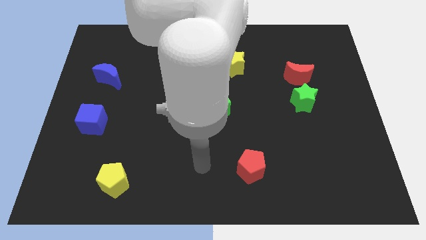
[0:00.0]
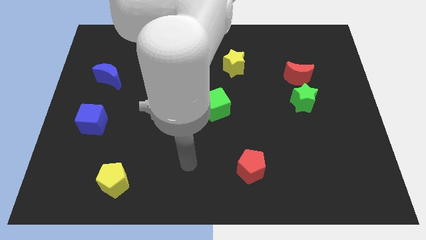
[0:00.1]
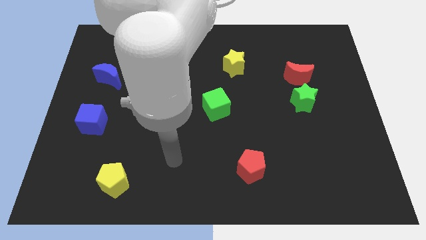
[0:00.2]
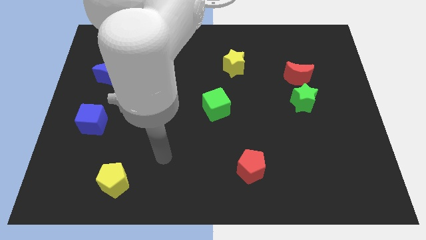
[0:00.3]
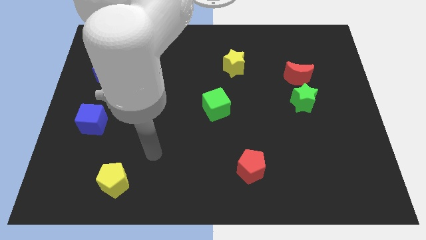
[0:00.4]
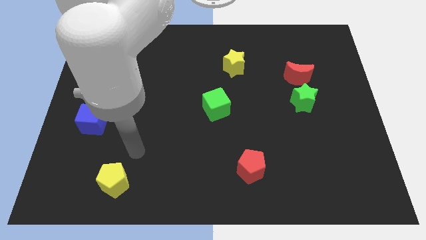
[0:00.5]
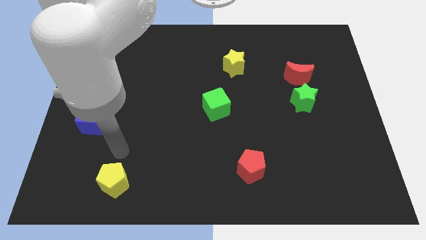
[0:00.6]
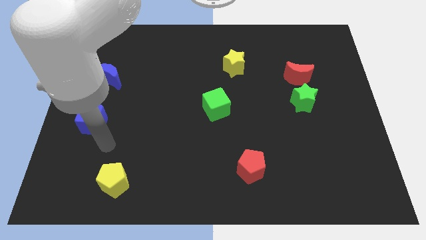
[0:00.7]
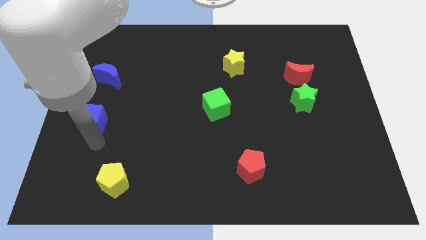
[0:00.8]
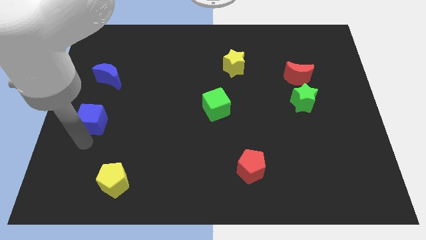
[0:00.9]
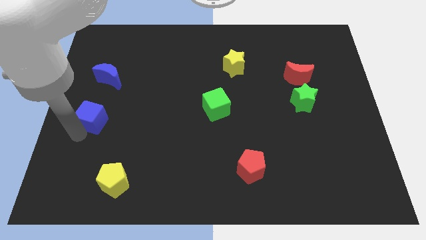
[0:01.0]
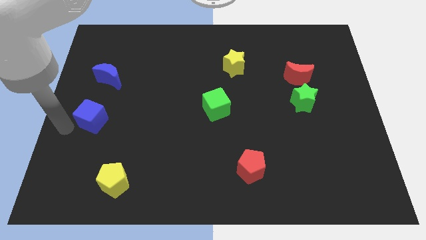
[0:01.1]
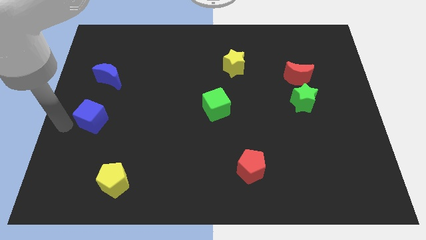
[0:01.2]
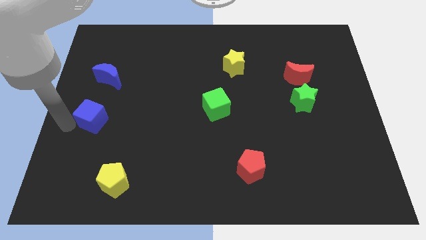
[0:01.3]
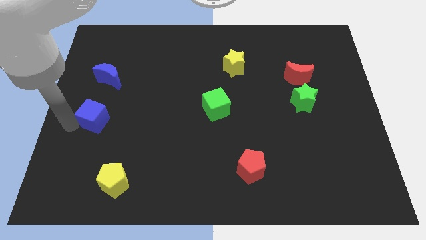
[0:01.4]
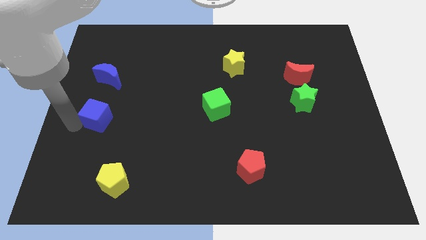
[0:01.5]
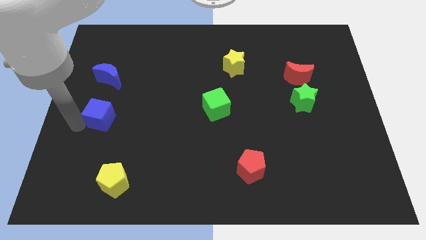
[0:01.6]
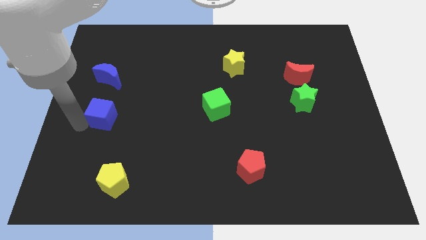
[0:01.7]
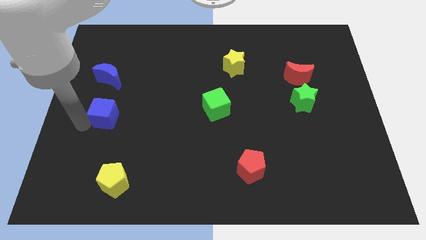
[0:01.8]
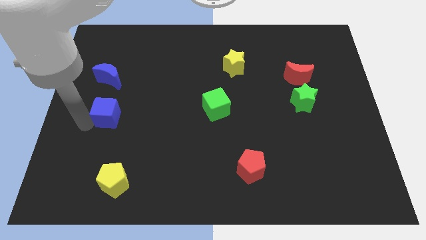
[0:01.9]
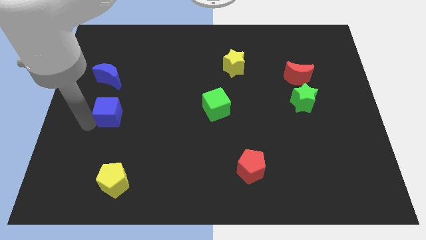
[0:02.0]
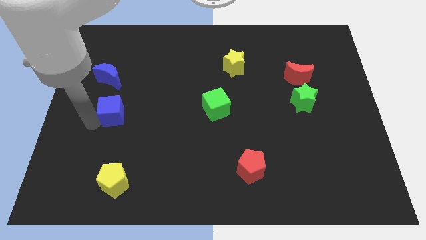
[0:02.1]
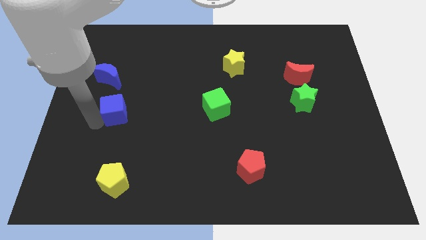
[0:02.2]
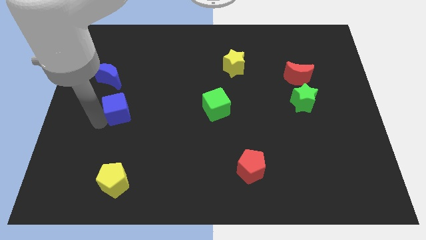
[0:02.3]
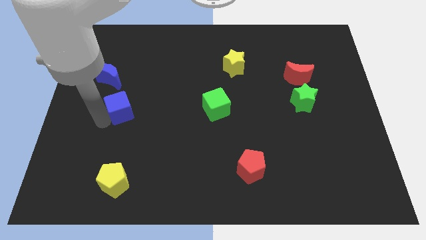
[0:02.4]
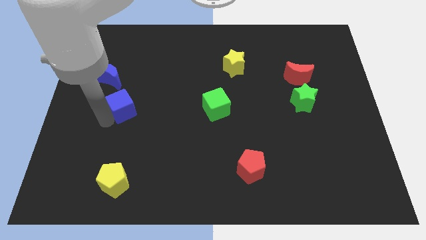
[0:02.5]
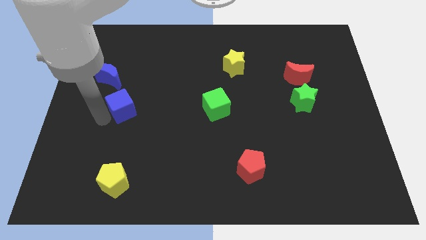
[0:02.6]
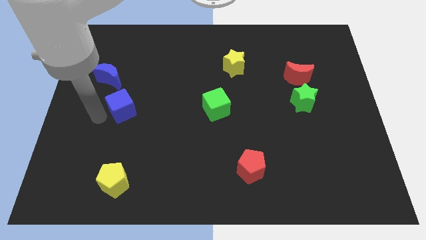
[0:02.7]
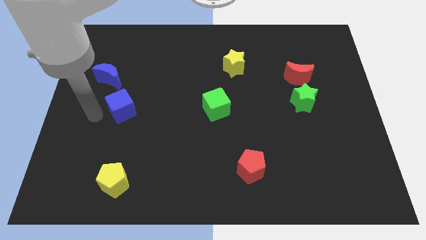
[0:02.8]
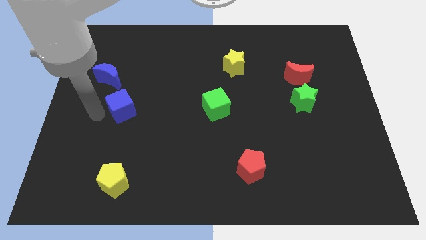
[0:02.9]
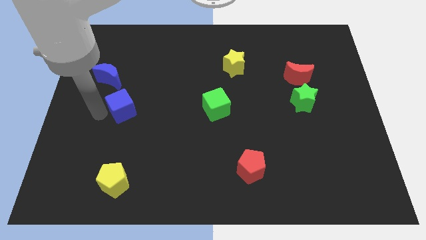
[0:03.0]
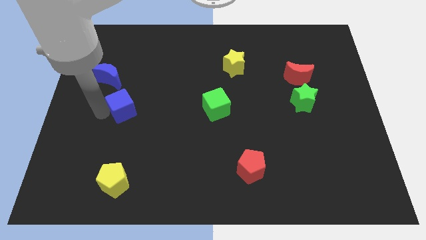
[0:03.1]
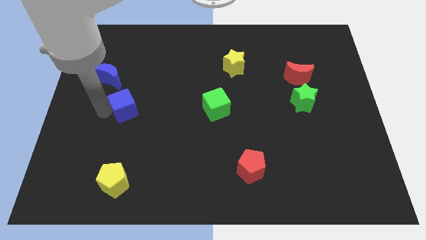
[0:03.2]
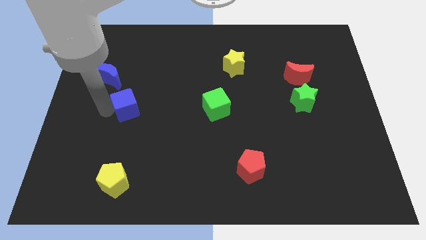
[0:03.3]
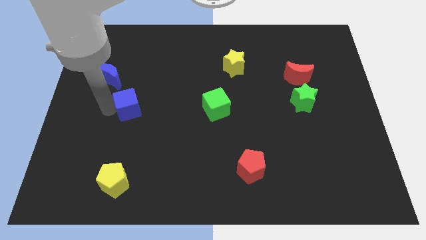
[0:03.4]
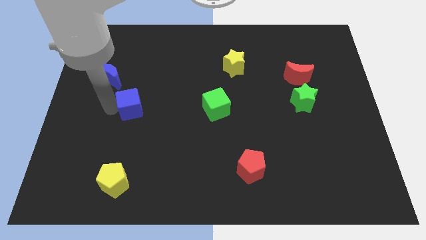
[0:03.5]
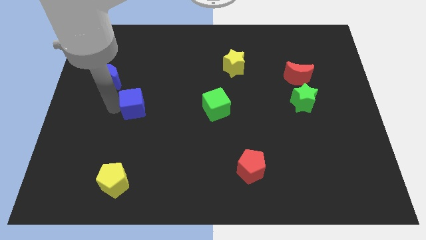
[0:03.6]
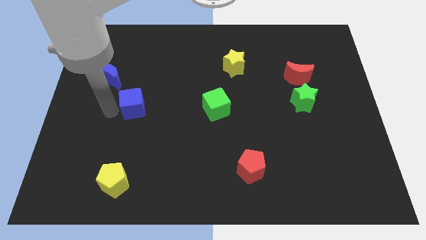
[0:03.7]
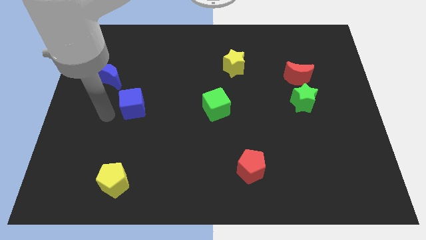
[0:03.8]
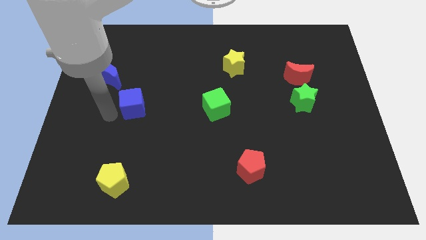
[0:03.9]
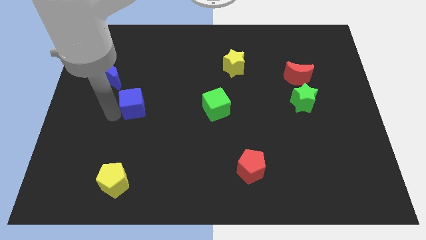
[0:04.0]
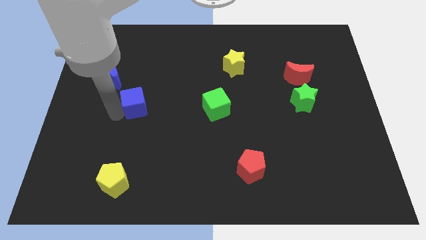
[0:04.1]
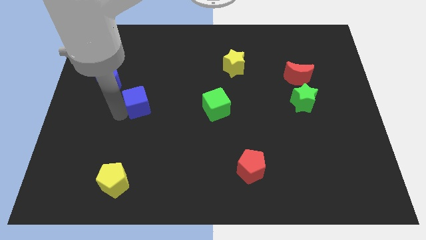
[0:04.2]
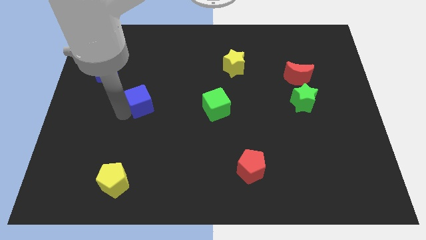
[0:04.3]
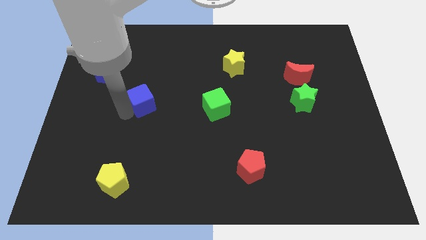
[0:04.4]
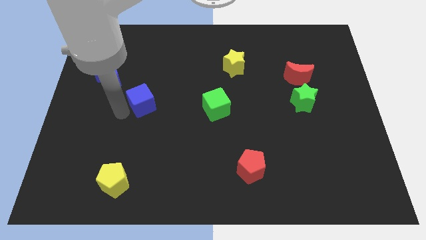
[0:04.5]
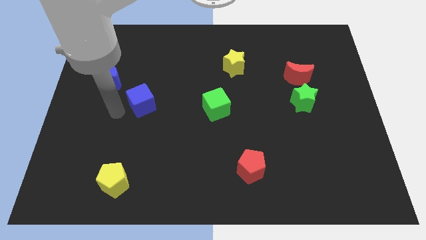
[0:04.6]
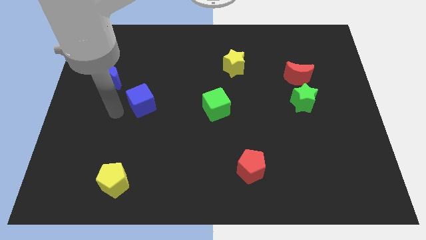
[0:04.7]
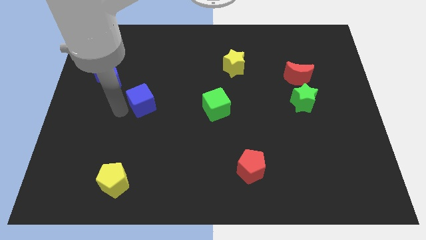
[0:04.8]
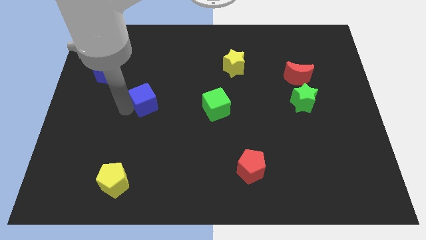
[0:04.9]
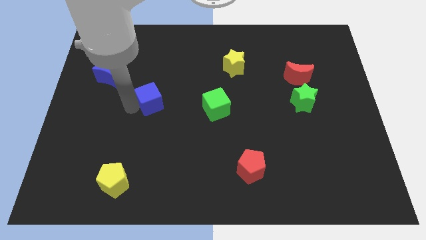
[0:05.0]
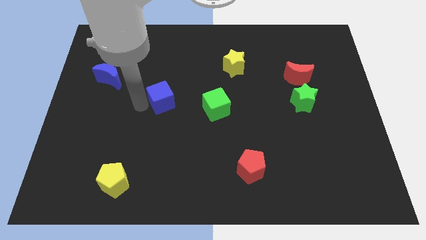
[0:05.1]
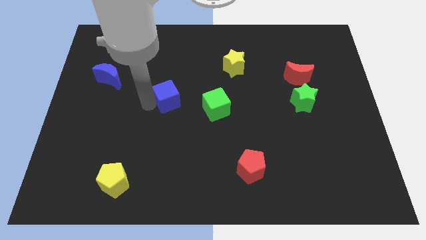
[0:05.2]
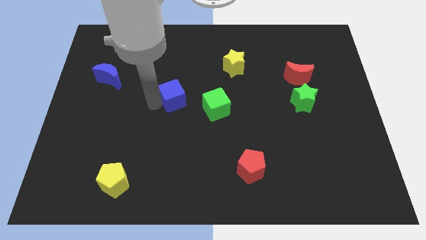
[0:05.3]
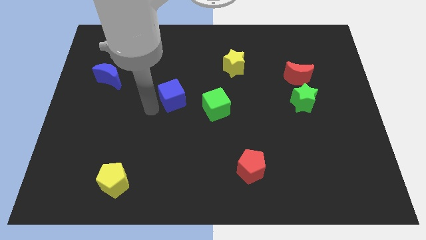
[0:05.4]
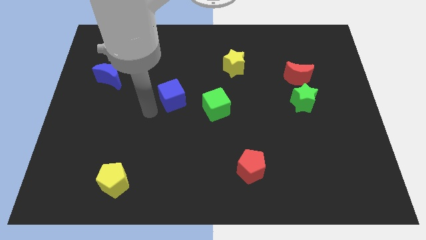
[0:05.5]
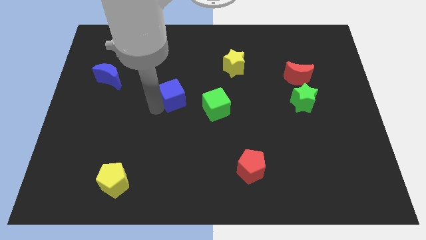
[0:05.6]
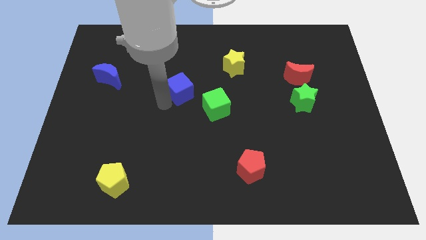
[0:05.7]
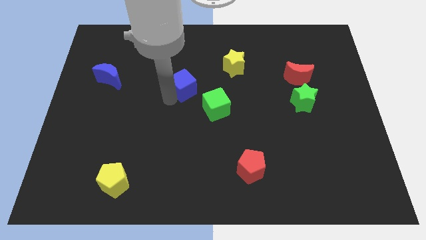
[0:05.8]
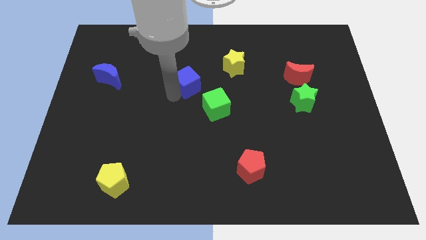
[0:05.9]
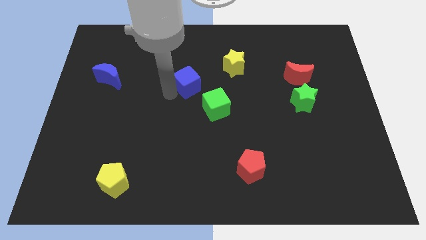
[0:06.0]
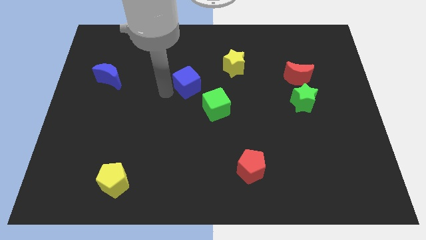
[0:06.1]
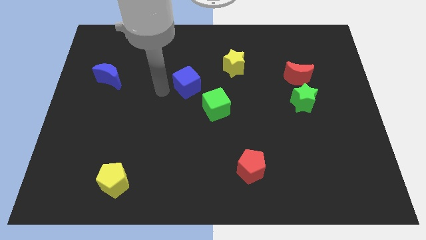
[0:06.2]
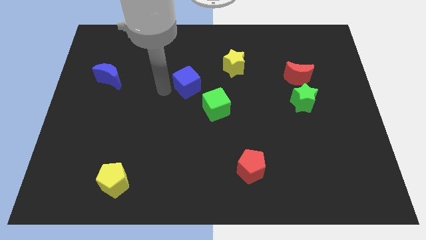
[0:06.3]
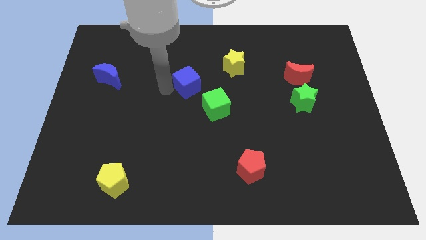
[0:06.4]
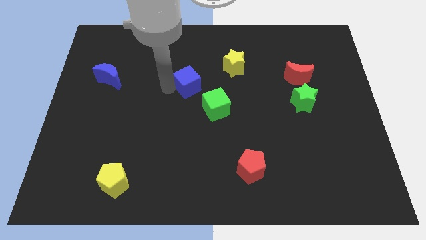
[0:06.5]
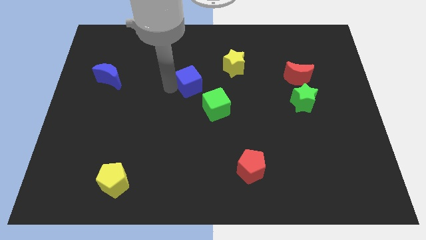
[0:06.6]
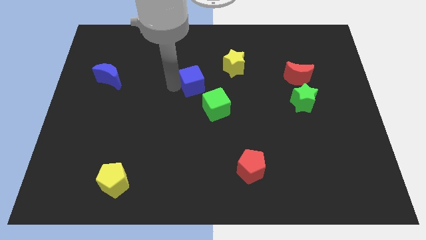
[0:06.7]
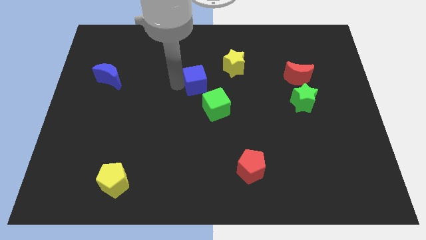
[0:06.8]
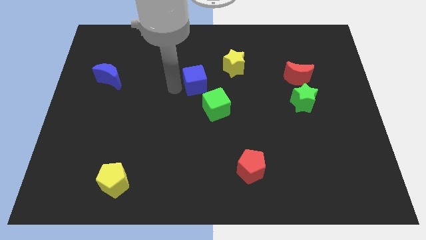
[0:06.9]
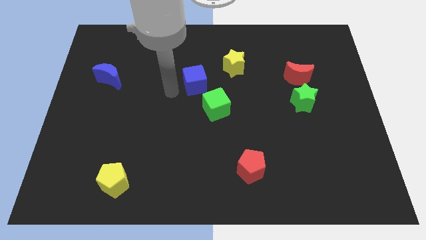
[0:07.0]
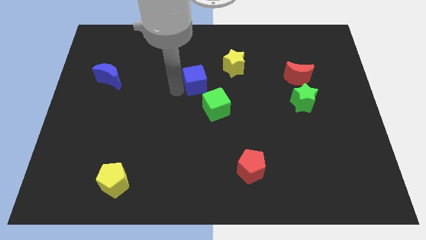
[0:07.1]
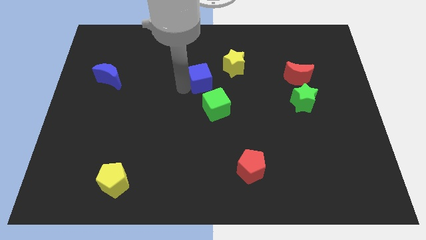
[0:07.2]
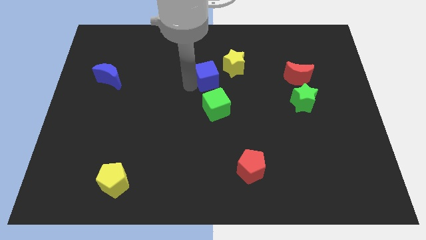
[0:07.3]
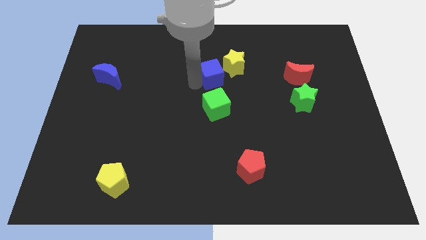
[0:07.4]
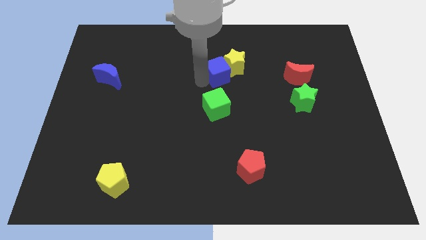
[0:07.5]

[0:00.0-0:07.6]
slide the blue cube close to the yellow star
